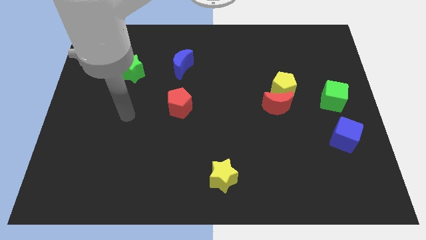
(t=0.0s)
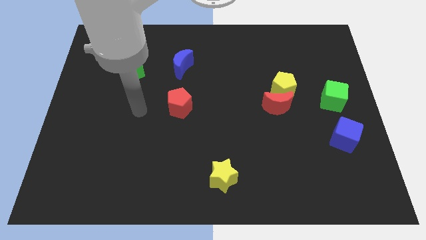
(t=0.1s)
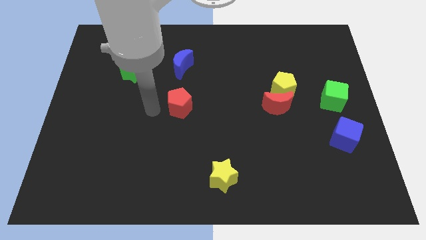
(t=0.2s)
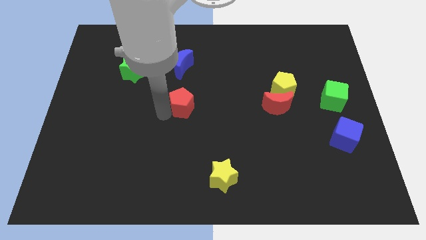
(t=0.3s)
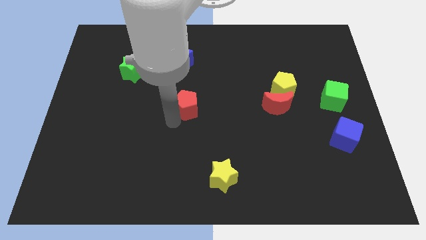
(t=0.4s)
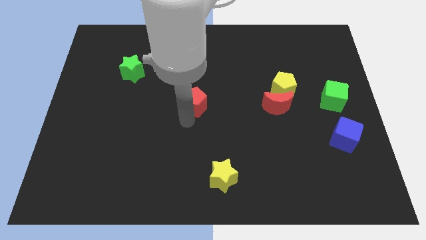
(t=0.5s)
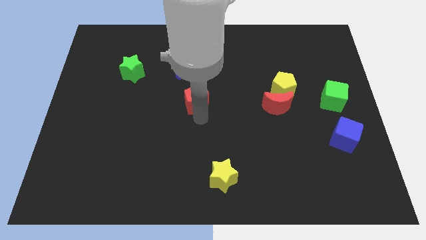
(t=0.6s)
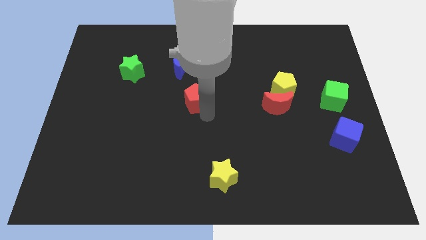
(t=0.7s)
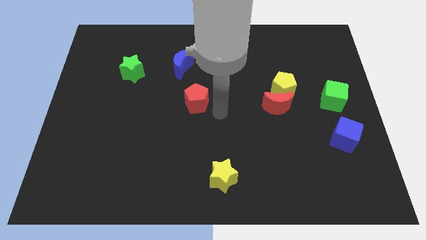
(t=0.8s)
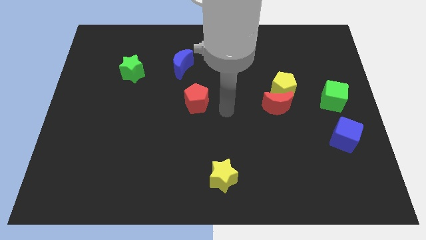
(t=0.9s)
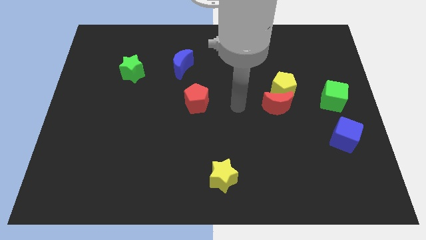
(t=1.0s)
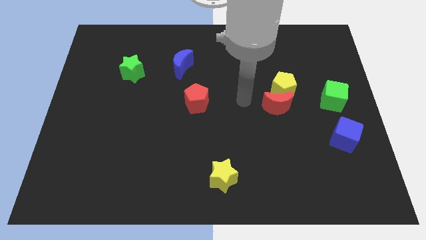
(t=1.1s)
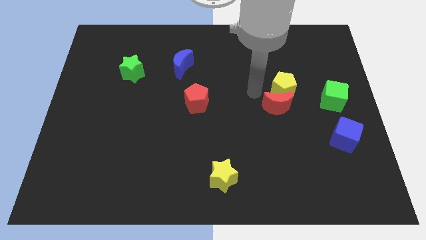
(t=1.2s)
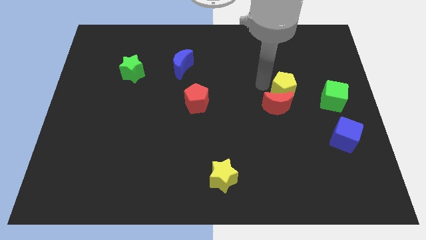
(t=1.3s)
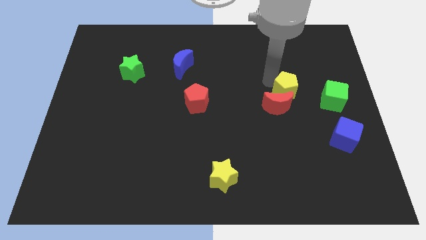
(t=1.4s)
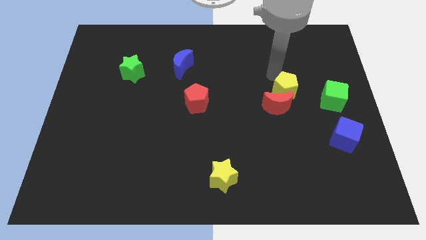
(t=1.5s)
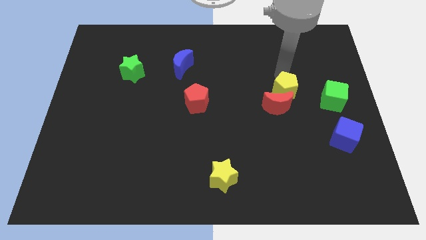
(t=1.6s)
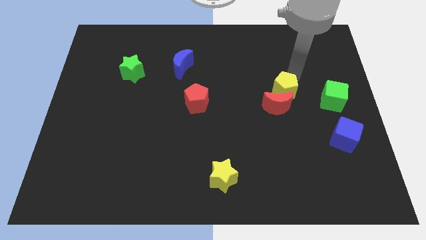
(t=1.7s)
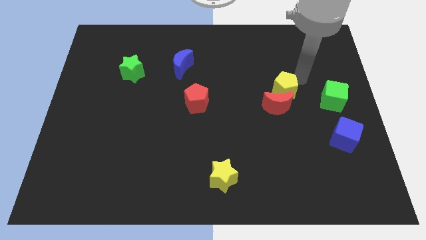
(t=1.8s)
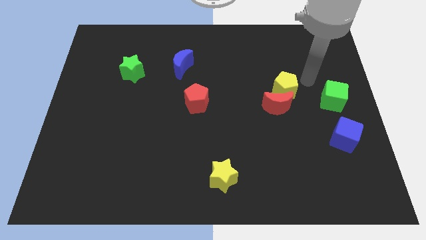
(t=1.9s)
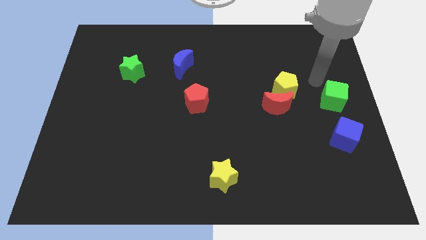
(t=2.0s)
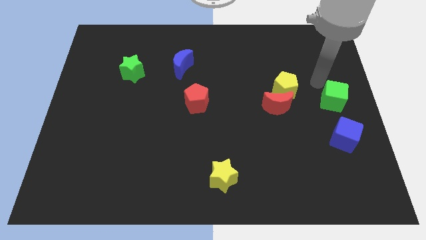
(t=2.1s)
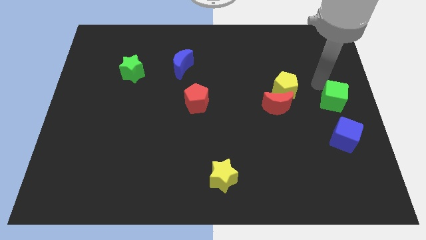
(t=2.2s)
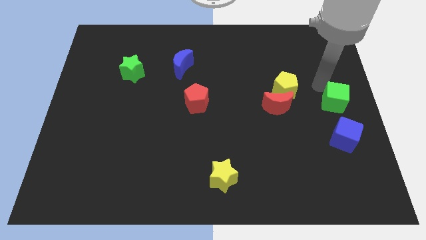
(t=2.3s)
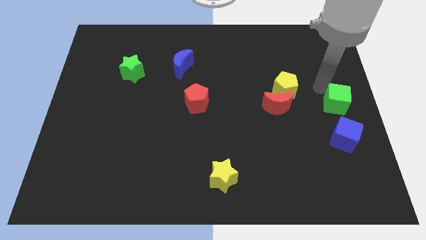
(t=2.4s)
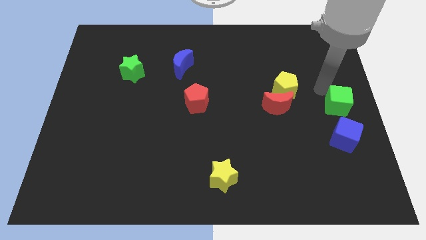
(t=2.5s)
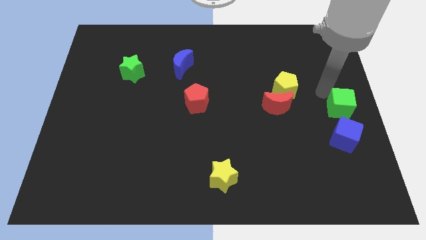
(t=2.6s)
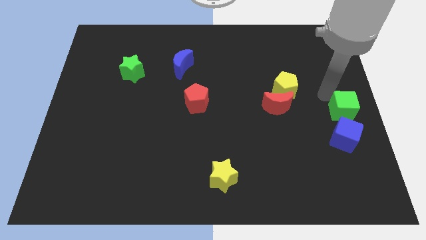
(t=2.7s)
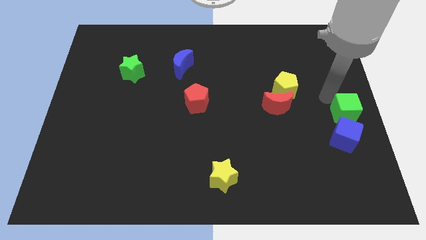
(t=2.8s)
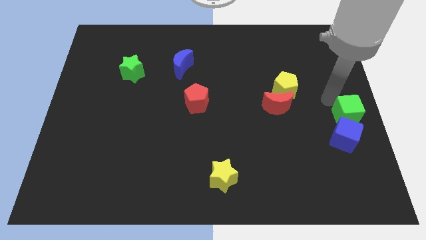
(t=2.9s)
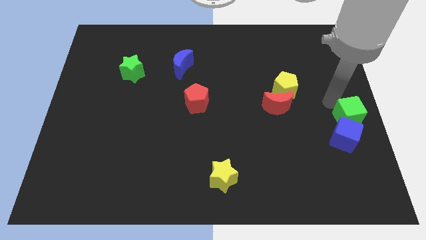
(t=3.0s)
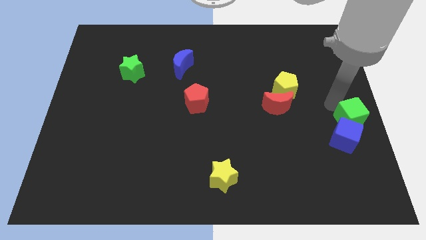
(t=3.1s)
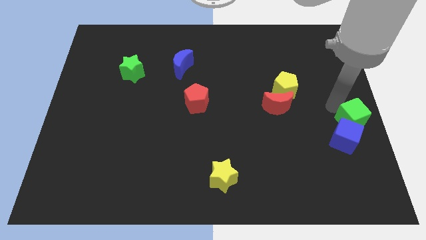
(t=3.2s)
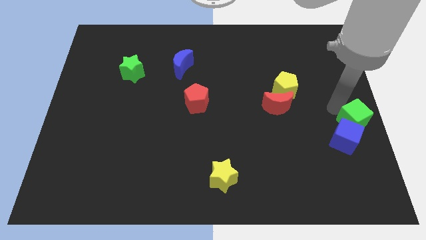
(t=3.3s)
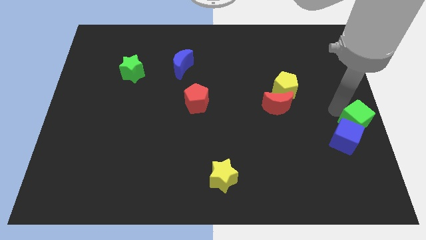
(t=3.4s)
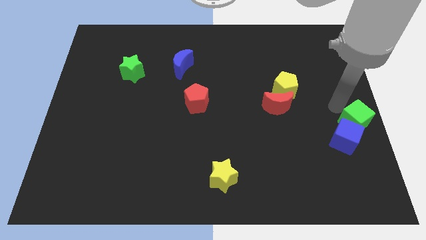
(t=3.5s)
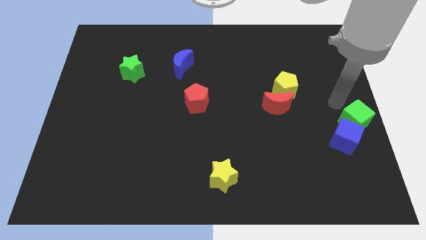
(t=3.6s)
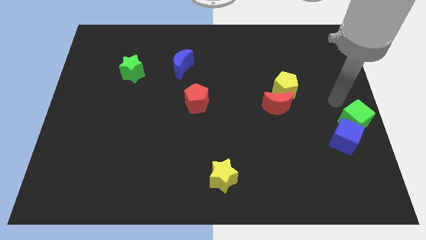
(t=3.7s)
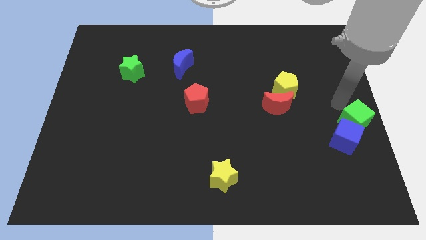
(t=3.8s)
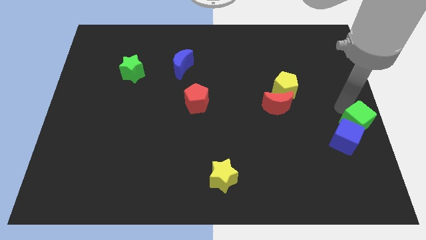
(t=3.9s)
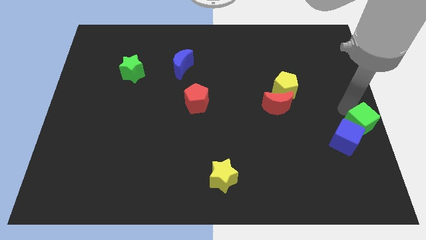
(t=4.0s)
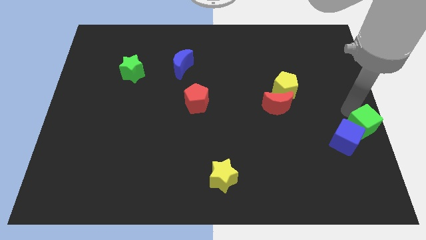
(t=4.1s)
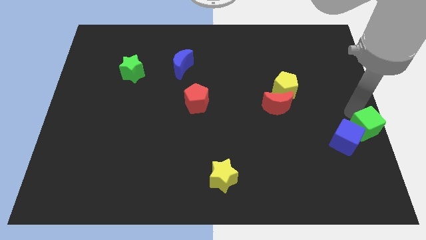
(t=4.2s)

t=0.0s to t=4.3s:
push the green cube a little downwards

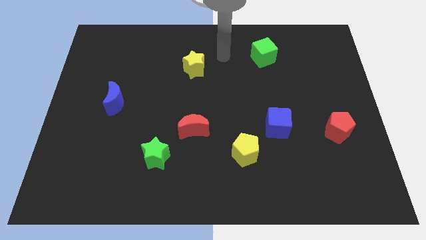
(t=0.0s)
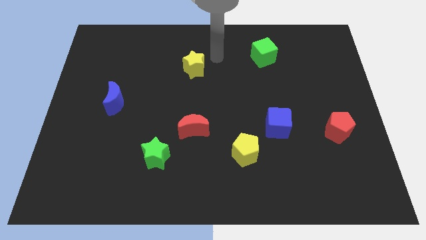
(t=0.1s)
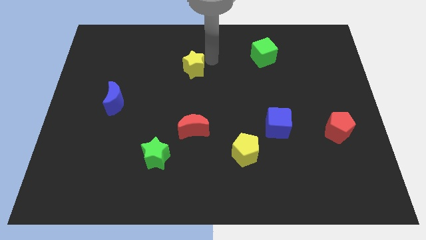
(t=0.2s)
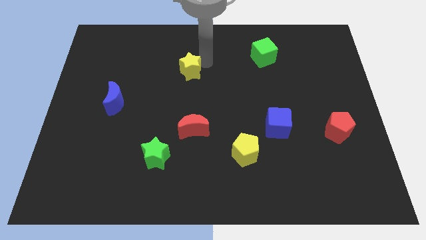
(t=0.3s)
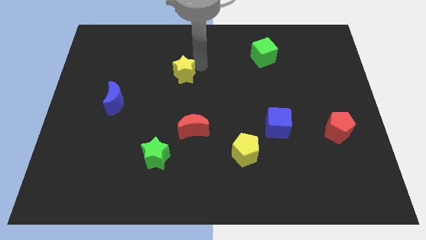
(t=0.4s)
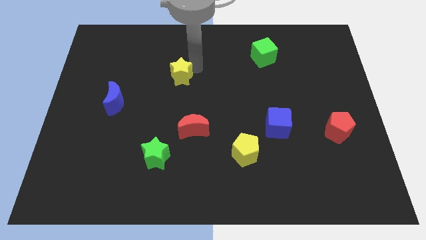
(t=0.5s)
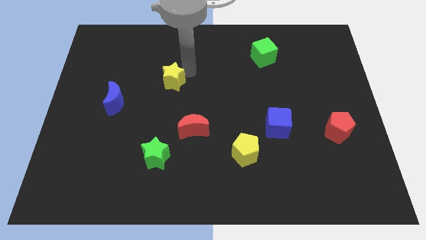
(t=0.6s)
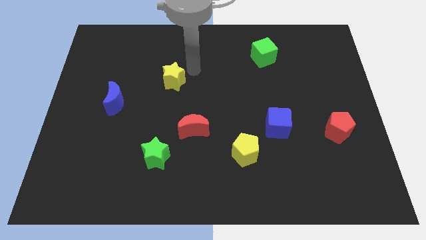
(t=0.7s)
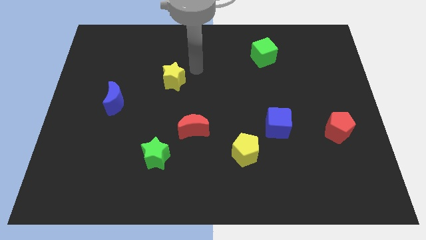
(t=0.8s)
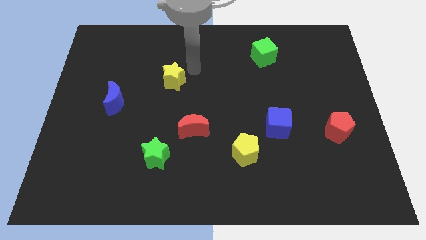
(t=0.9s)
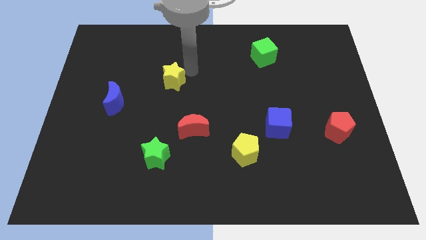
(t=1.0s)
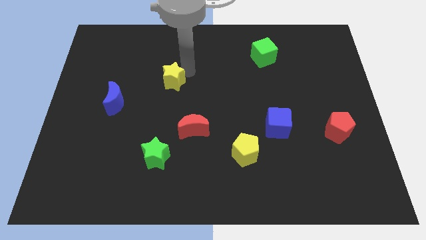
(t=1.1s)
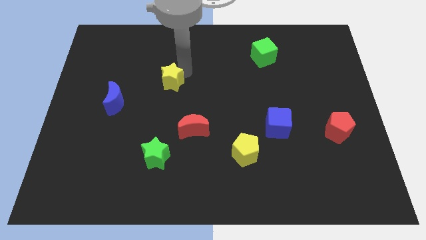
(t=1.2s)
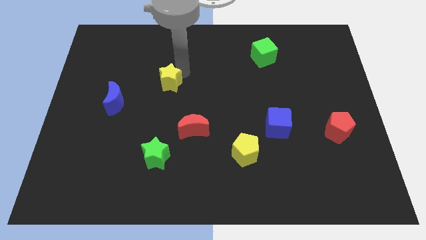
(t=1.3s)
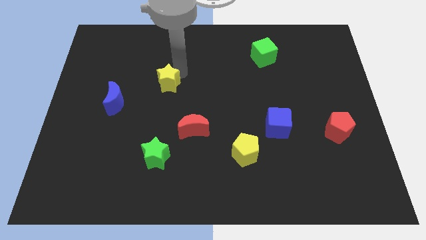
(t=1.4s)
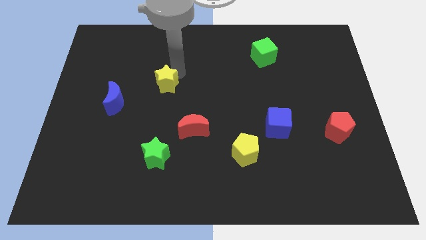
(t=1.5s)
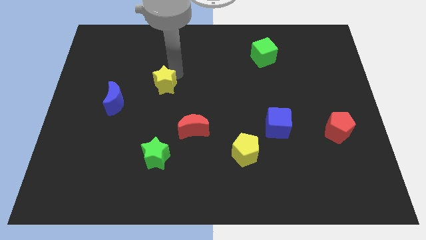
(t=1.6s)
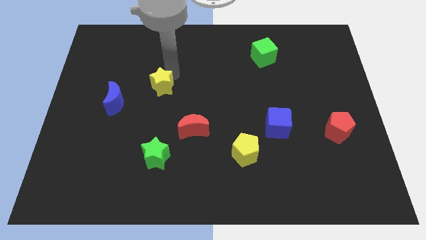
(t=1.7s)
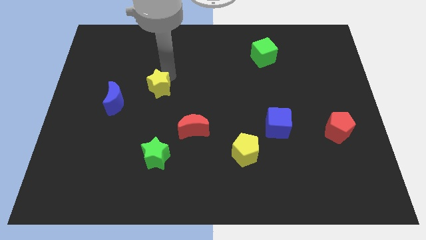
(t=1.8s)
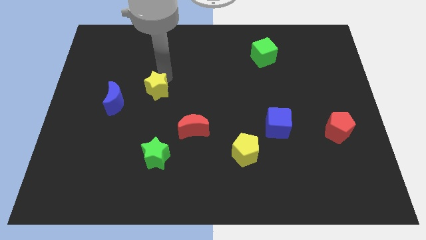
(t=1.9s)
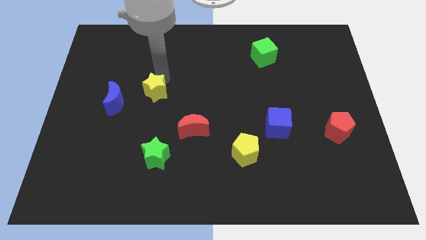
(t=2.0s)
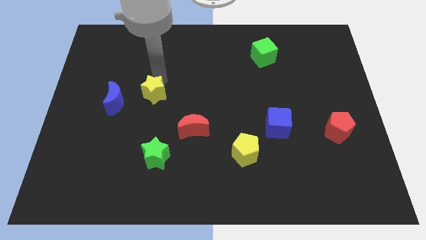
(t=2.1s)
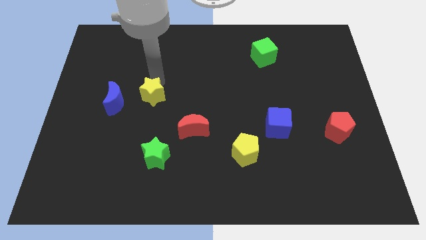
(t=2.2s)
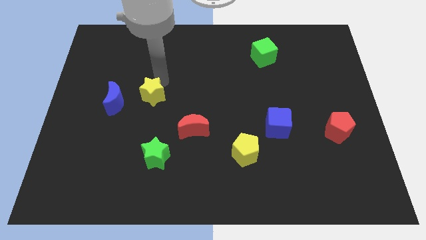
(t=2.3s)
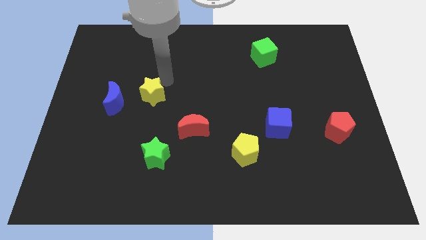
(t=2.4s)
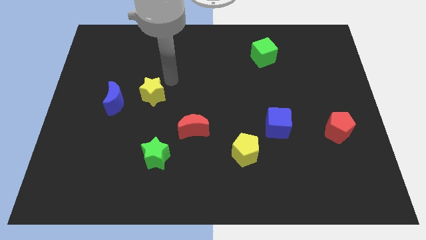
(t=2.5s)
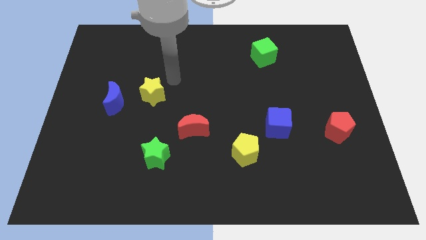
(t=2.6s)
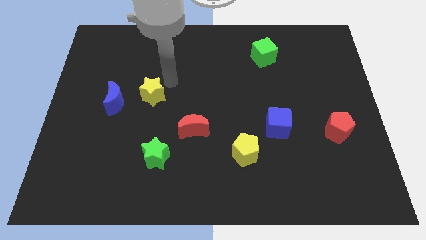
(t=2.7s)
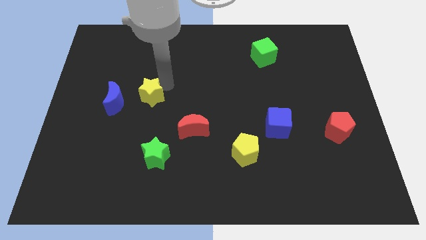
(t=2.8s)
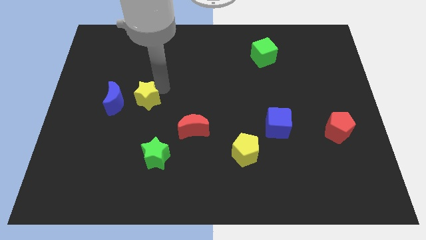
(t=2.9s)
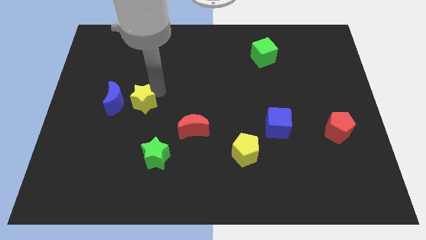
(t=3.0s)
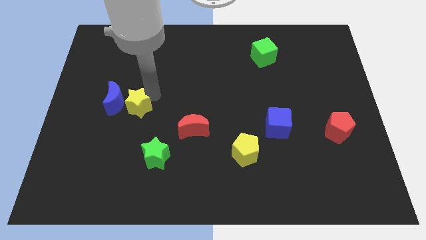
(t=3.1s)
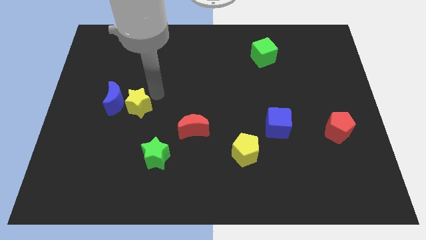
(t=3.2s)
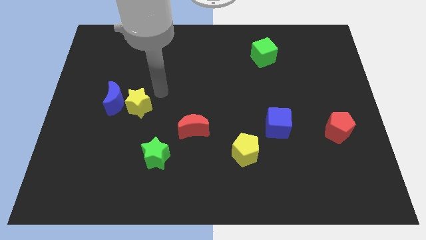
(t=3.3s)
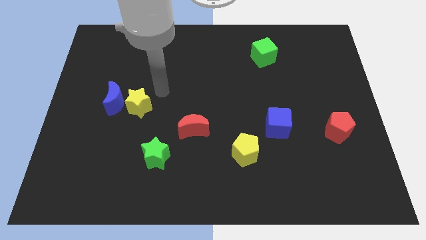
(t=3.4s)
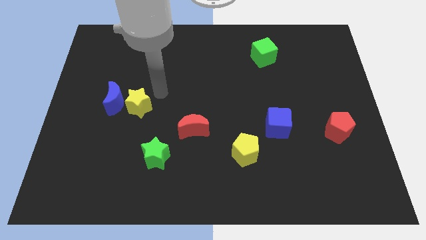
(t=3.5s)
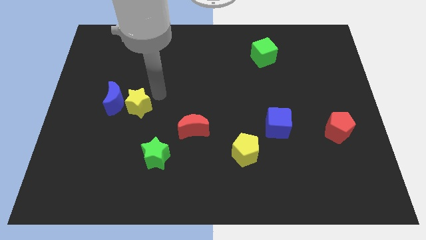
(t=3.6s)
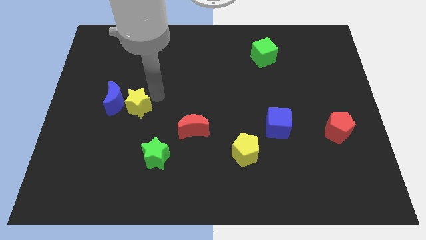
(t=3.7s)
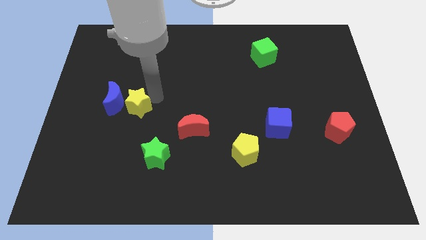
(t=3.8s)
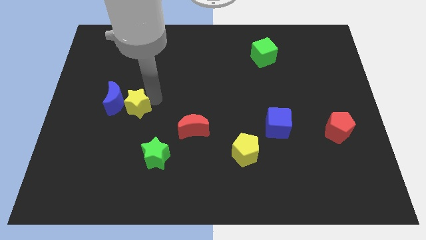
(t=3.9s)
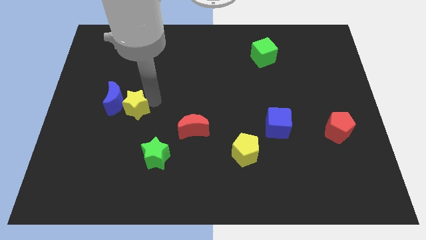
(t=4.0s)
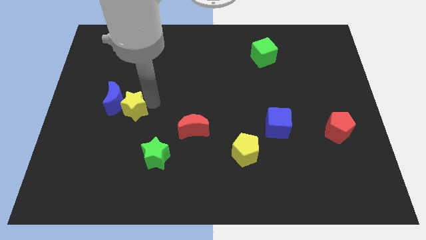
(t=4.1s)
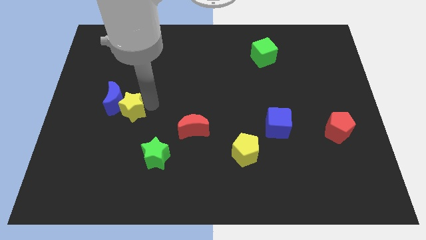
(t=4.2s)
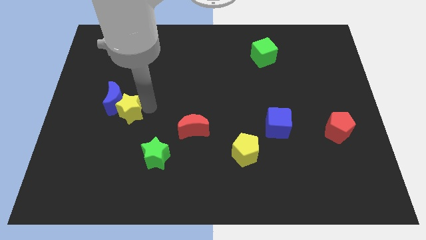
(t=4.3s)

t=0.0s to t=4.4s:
slide the yellow star downwards and left
